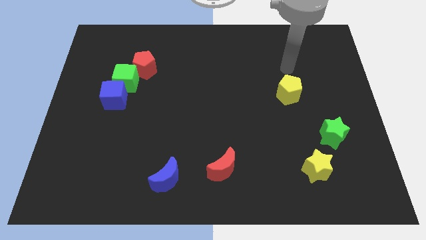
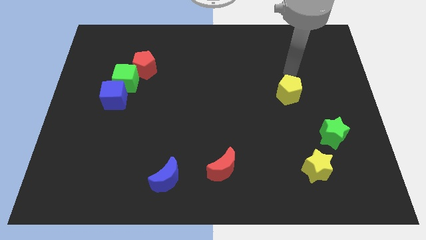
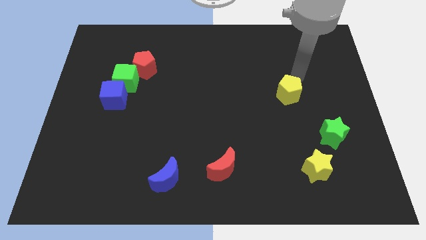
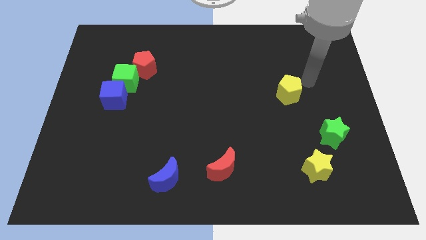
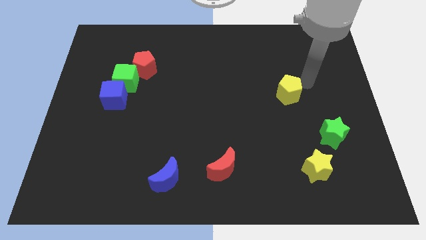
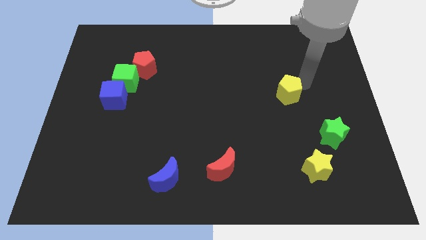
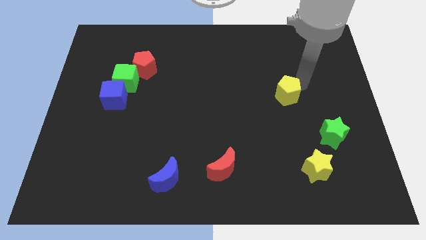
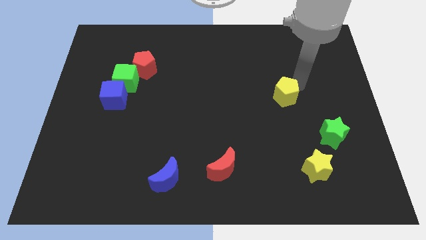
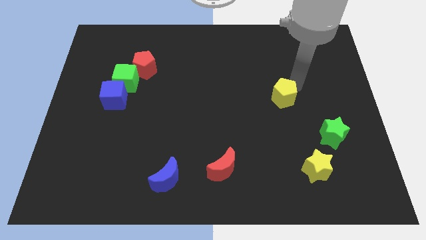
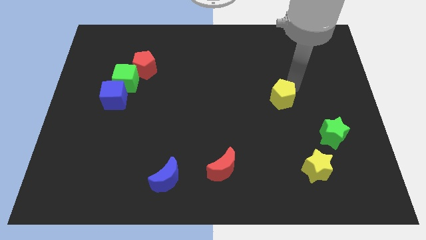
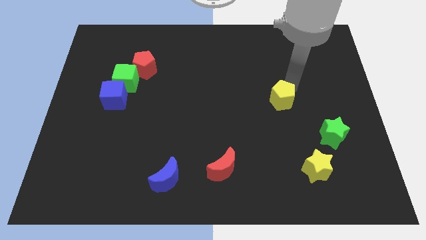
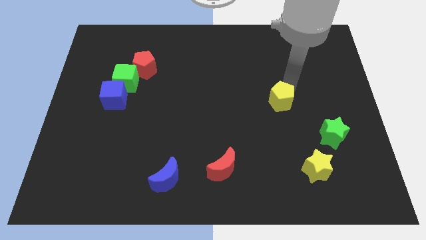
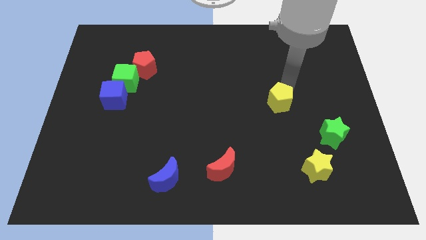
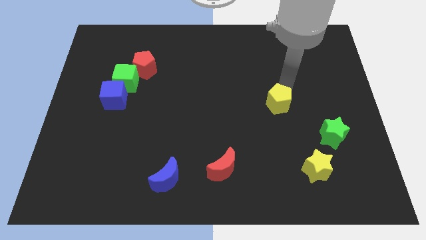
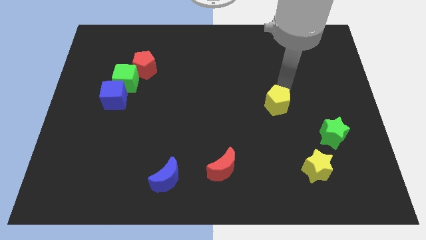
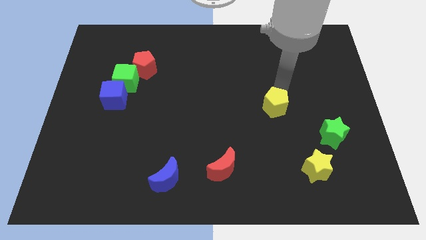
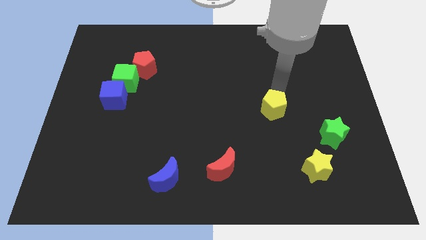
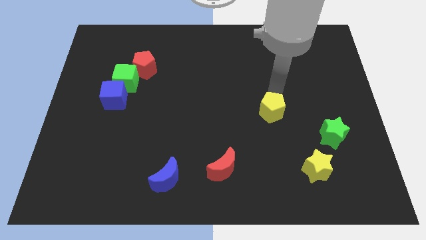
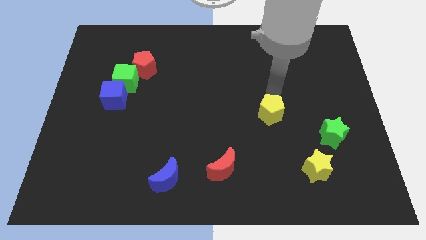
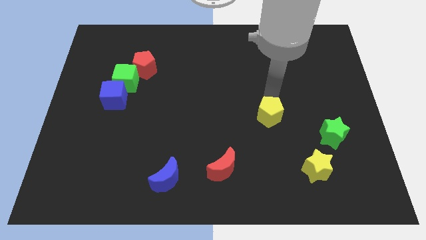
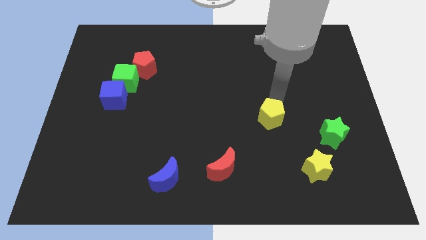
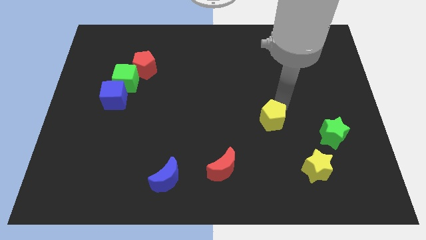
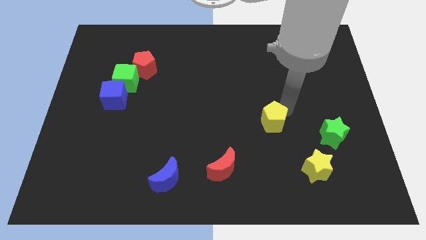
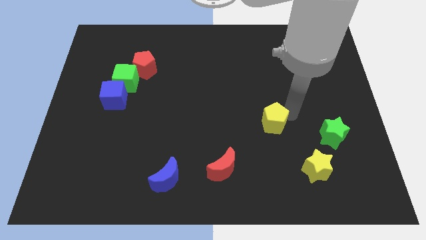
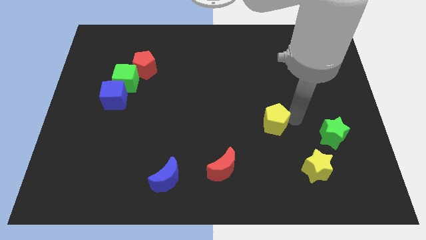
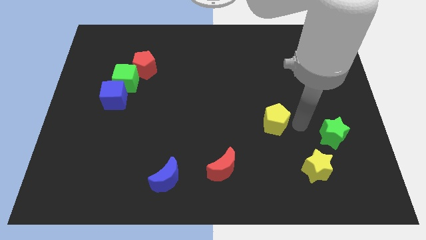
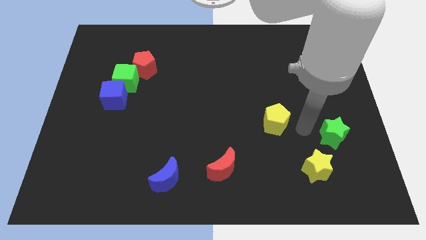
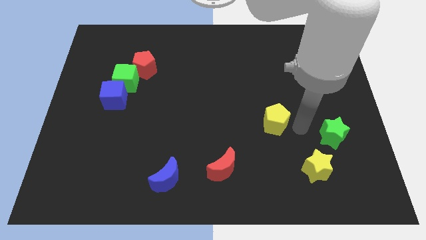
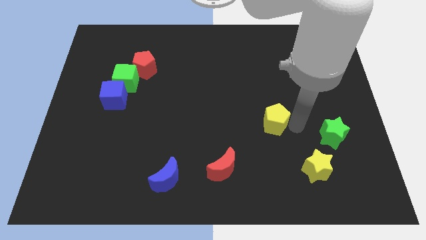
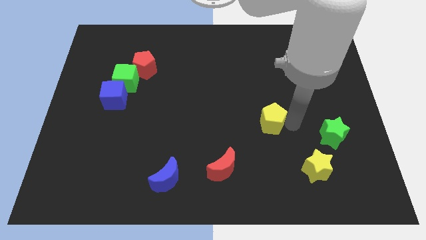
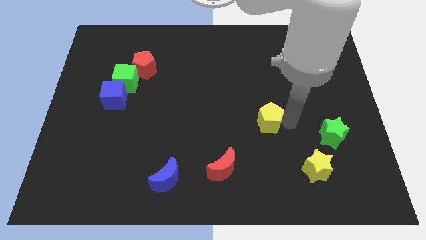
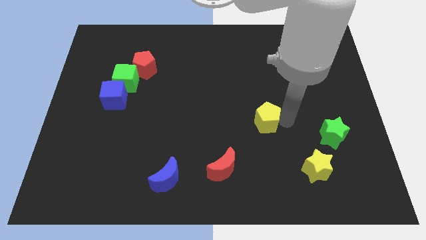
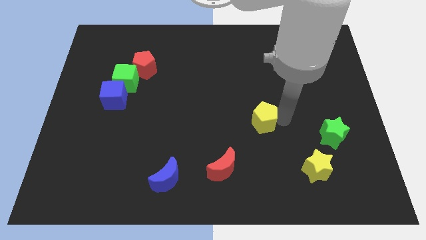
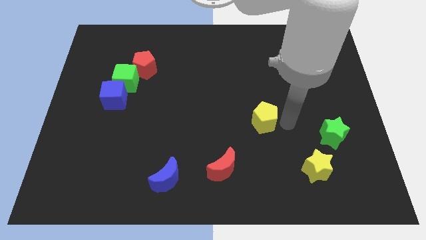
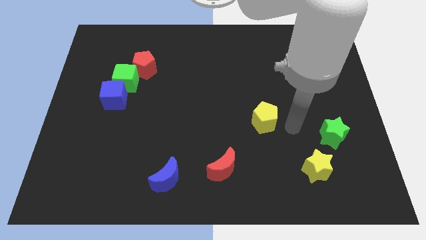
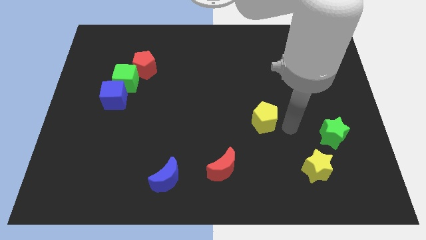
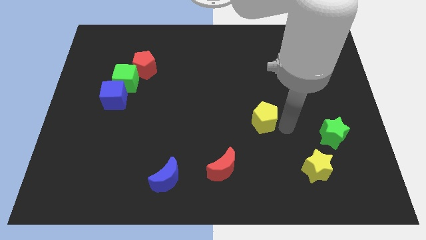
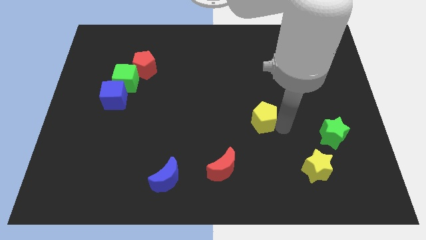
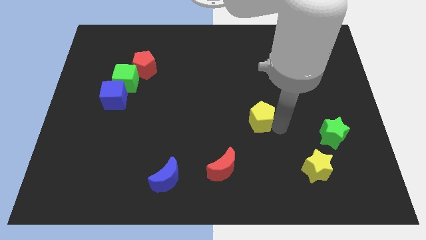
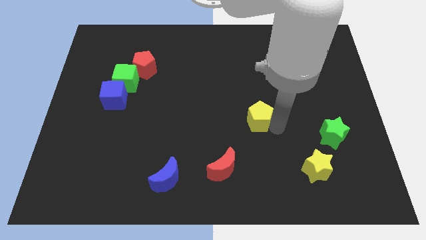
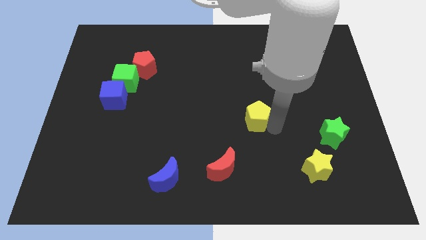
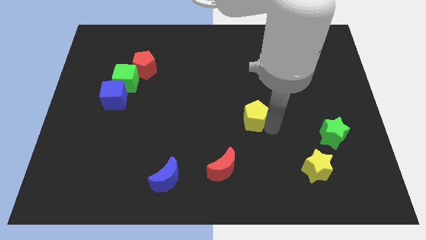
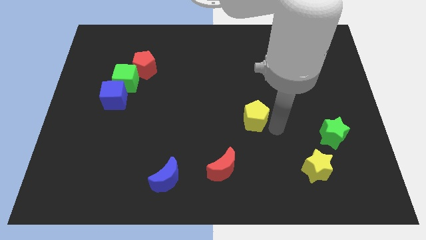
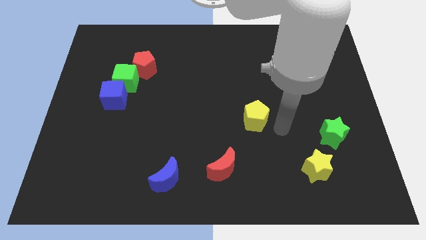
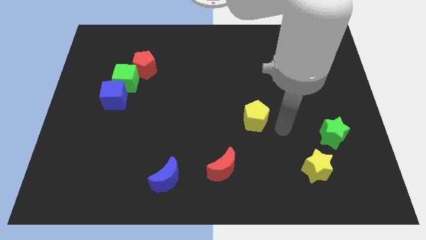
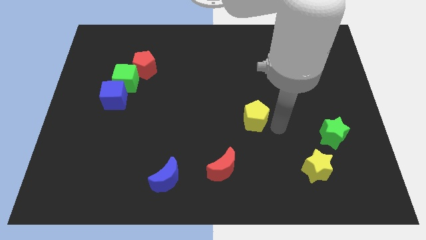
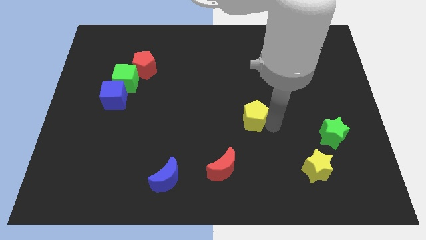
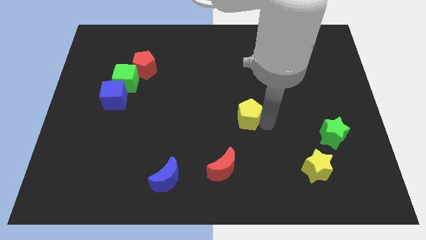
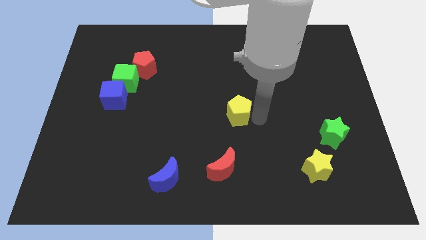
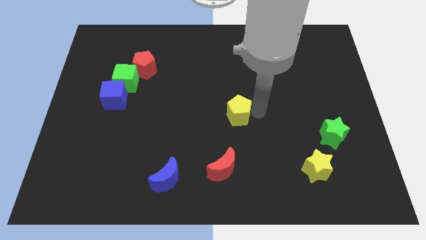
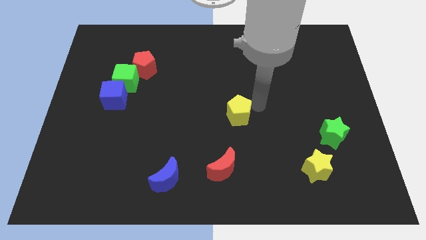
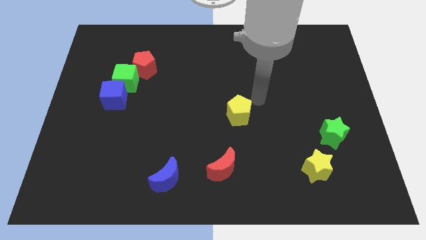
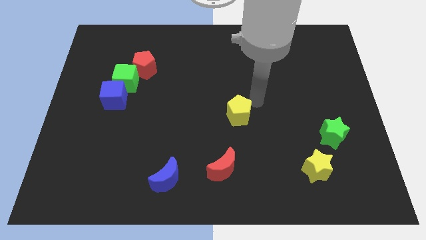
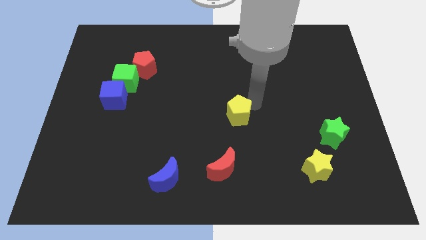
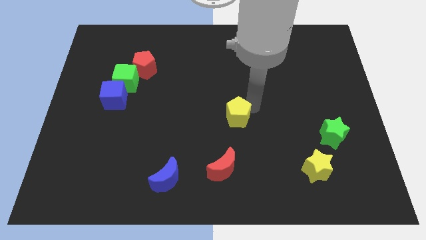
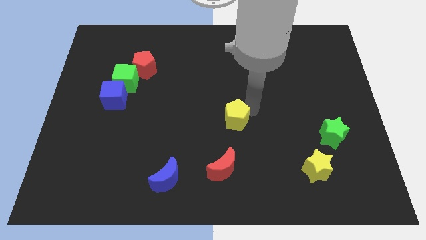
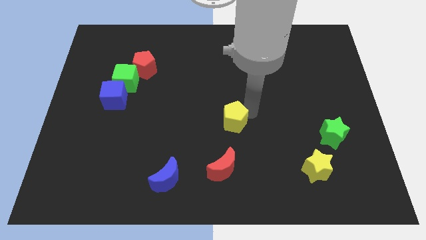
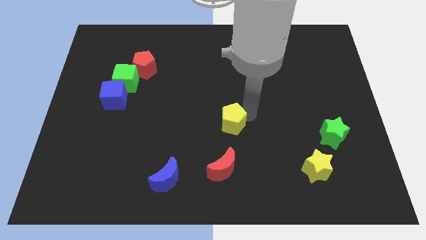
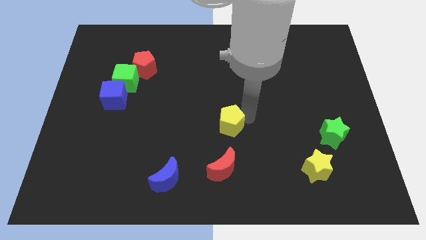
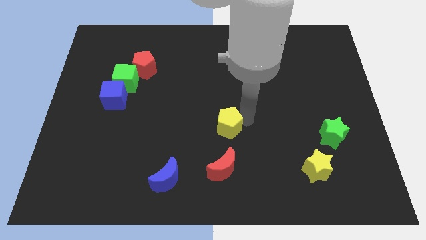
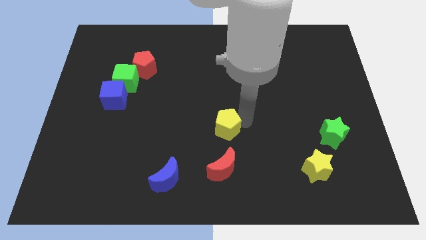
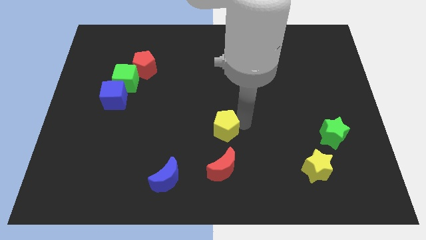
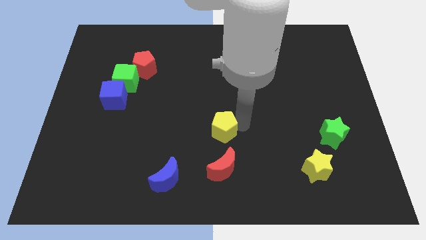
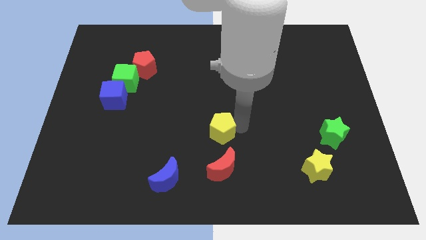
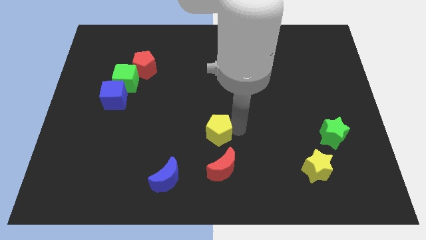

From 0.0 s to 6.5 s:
push the yellow pentagon down and left diagonally

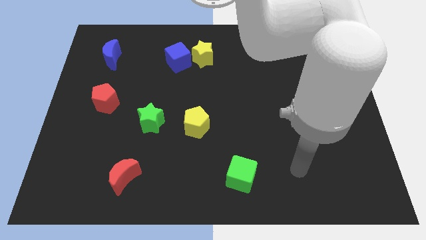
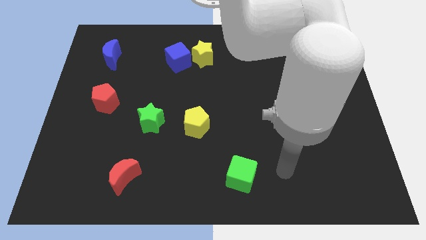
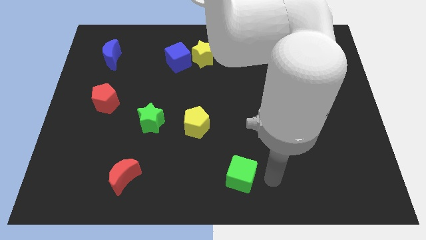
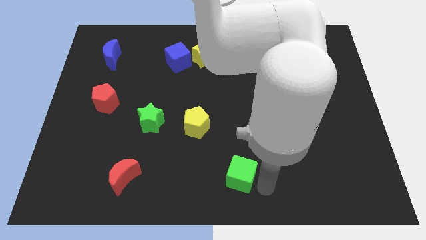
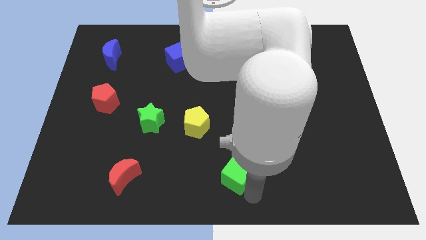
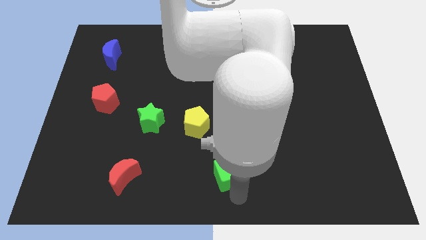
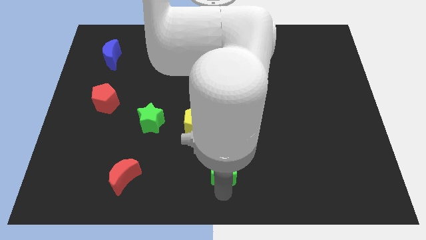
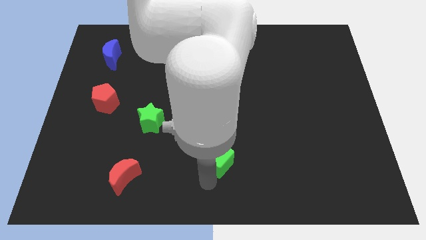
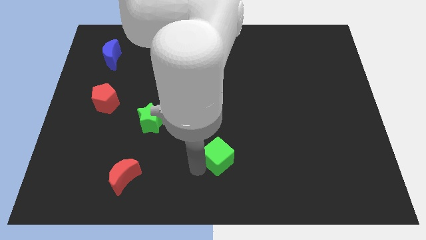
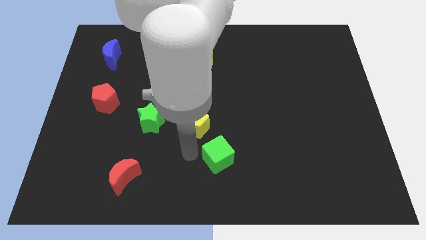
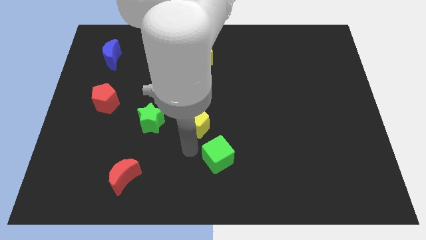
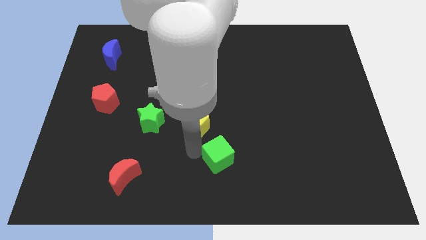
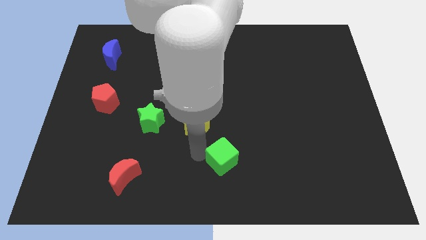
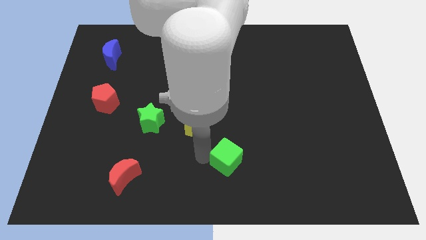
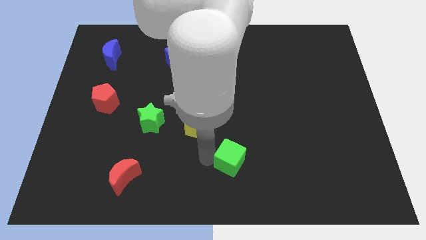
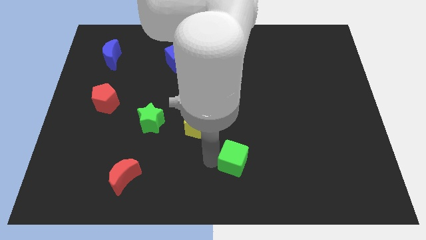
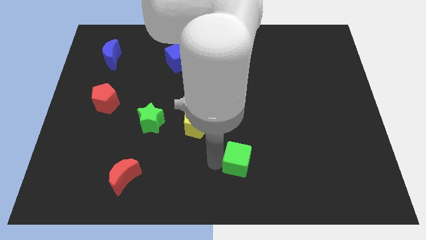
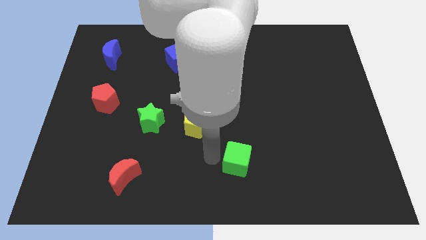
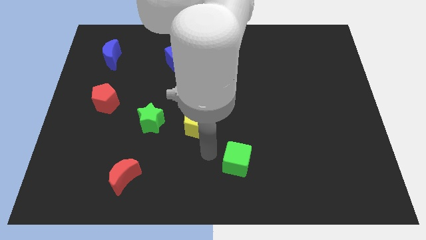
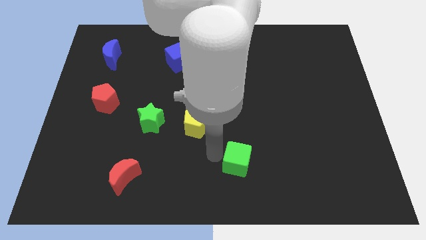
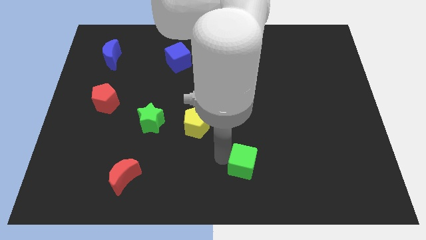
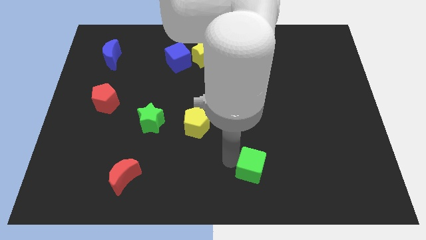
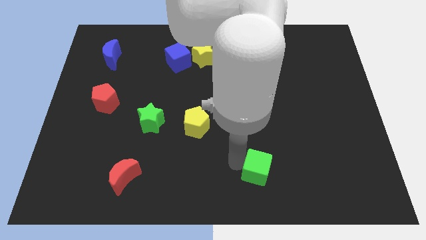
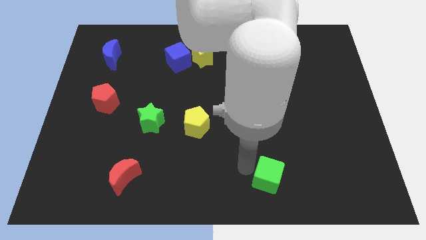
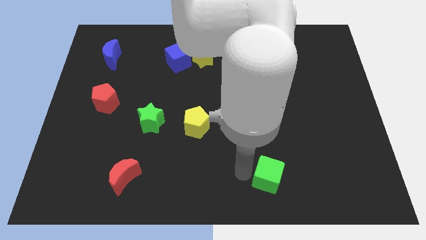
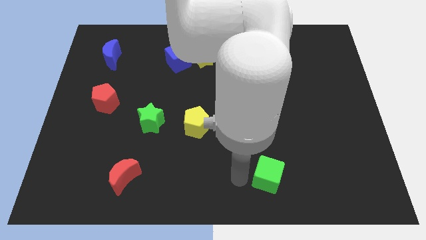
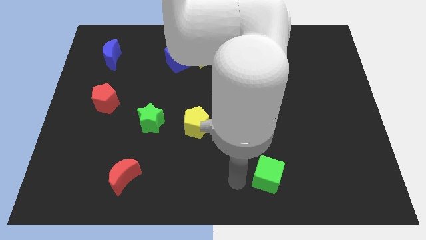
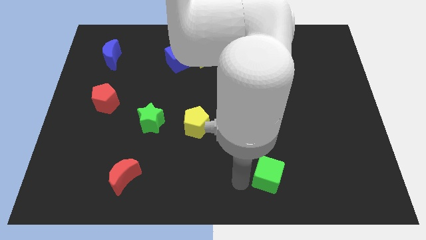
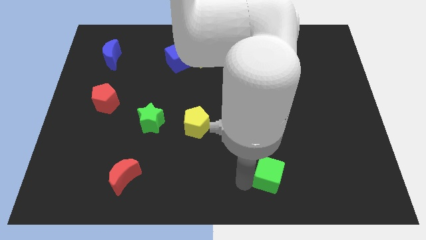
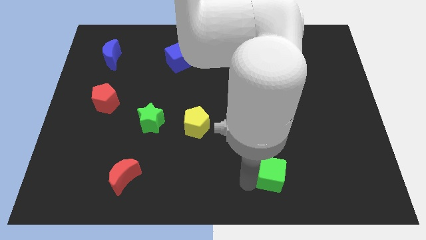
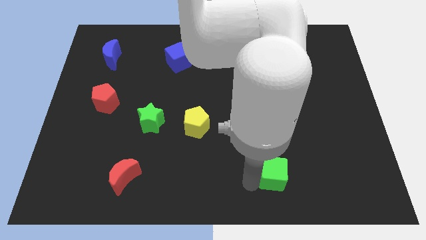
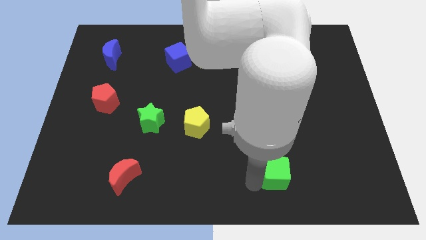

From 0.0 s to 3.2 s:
slightly push the green cube to the right
